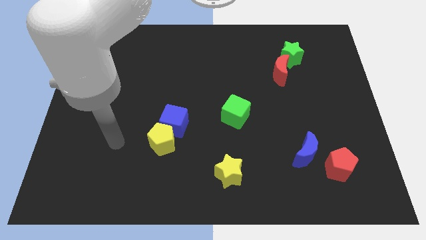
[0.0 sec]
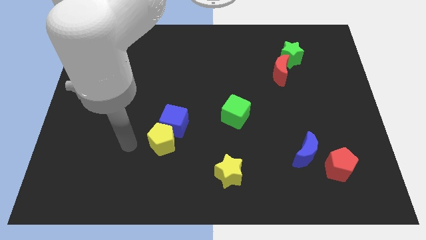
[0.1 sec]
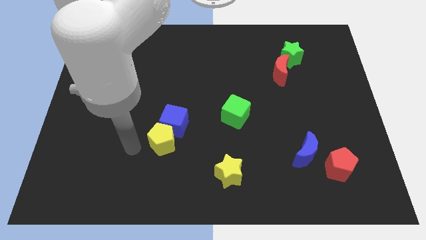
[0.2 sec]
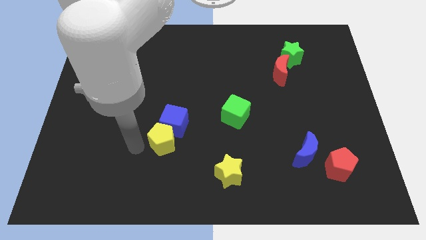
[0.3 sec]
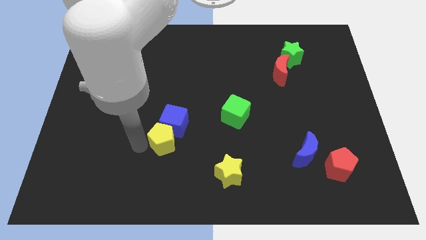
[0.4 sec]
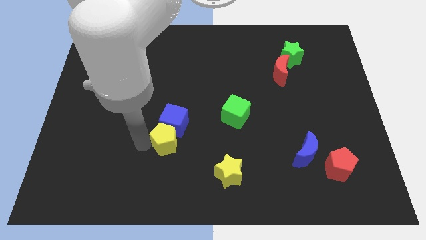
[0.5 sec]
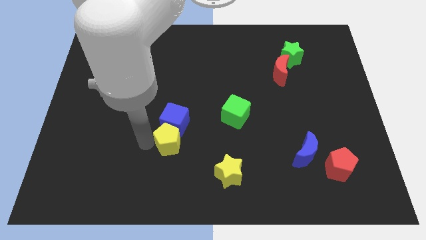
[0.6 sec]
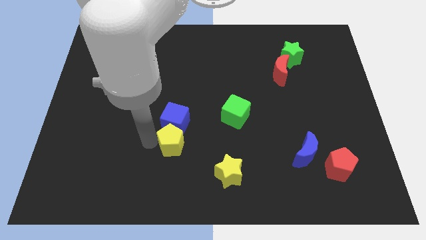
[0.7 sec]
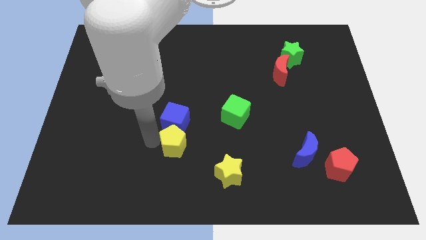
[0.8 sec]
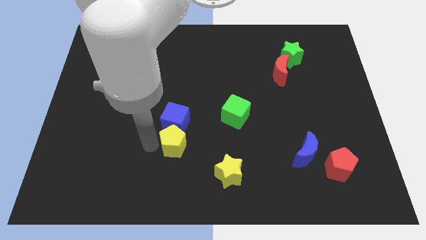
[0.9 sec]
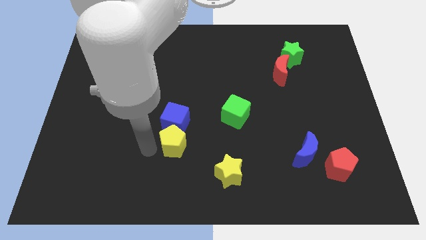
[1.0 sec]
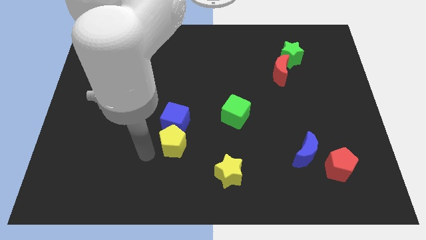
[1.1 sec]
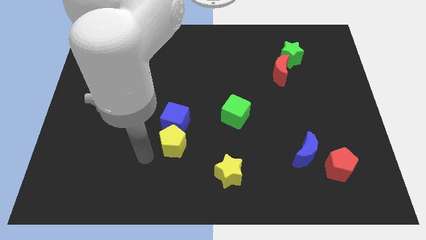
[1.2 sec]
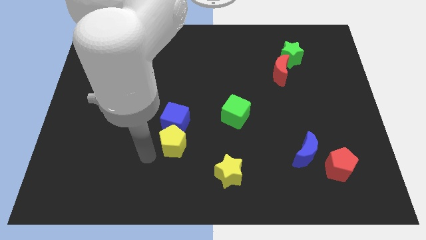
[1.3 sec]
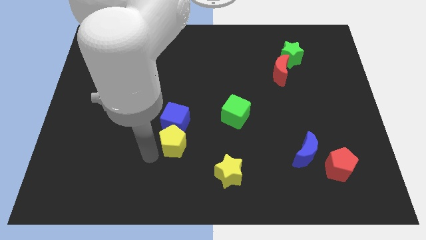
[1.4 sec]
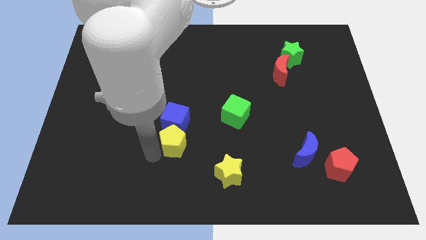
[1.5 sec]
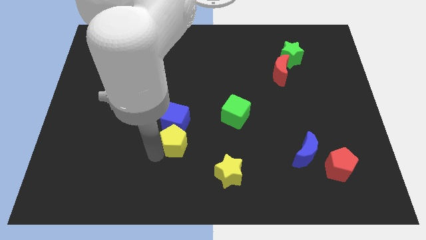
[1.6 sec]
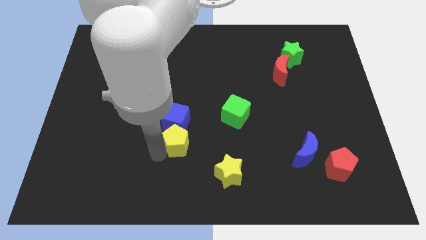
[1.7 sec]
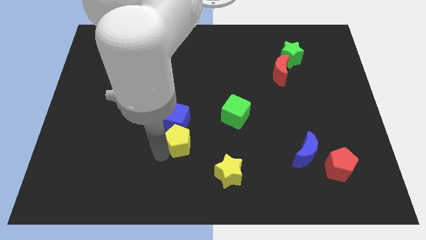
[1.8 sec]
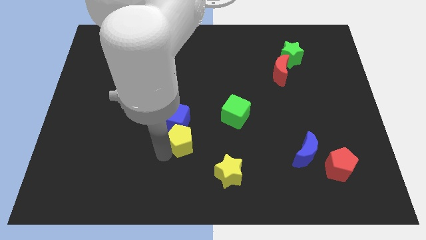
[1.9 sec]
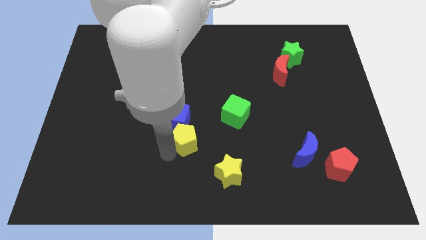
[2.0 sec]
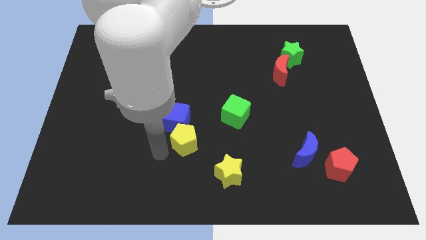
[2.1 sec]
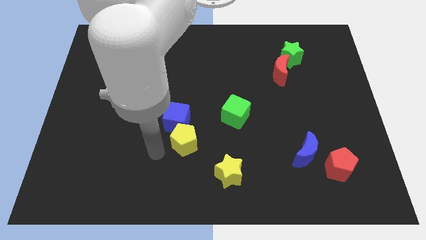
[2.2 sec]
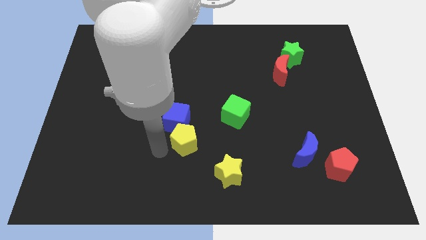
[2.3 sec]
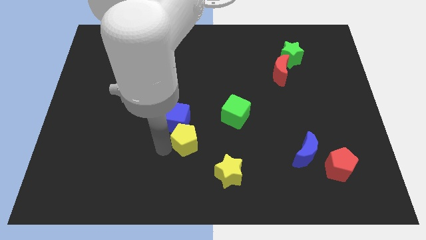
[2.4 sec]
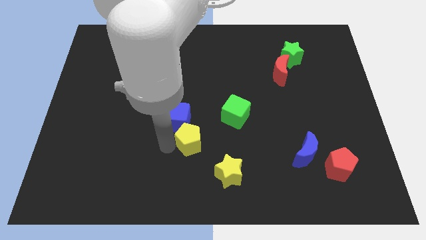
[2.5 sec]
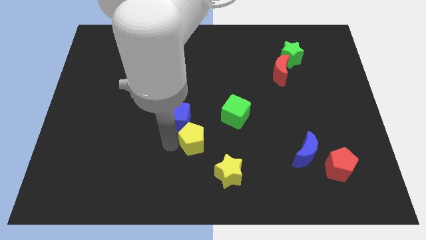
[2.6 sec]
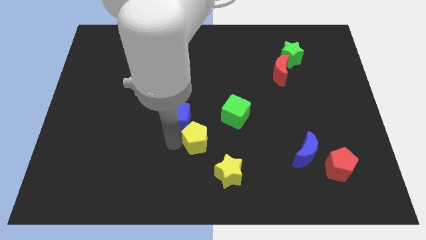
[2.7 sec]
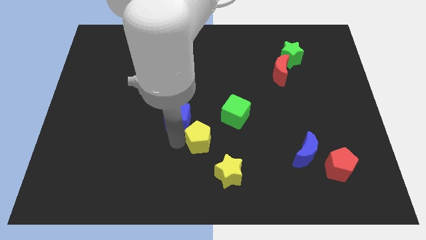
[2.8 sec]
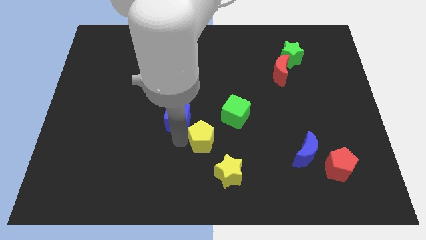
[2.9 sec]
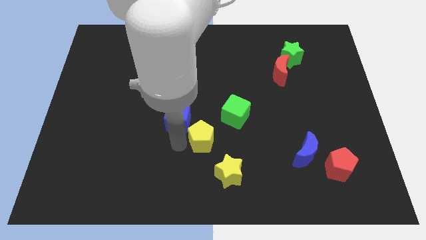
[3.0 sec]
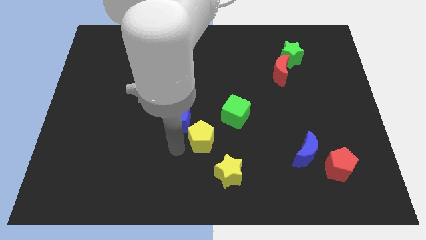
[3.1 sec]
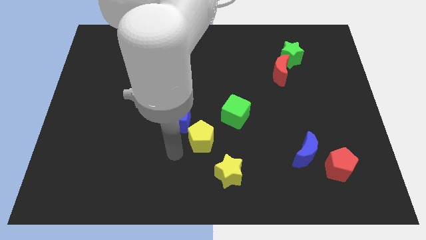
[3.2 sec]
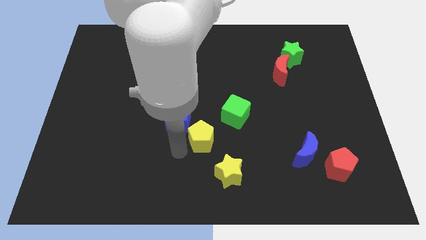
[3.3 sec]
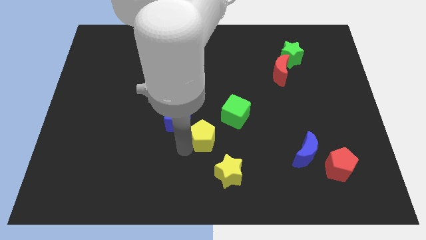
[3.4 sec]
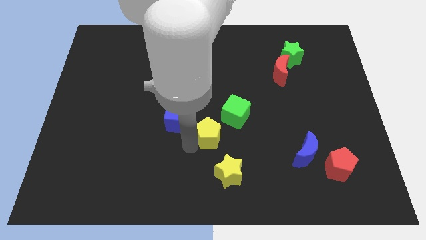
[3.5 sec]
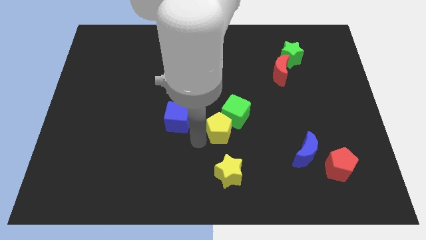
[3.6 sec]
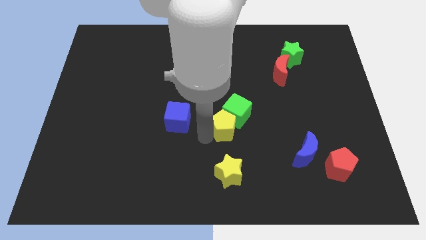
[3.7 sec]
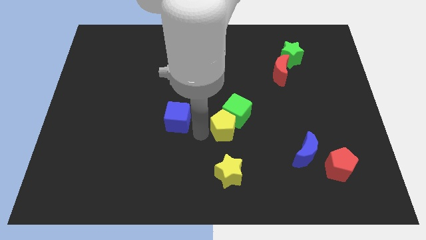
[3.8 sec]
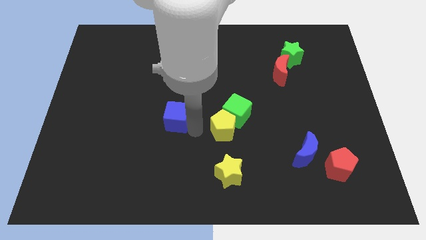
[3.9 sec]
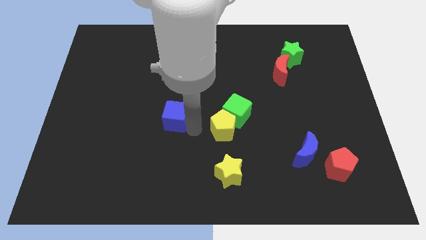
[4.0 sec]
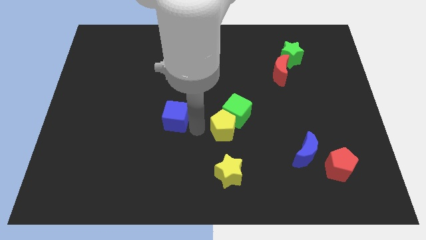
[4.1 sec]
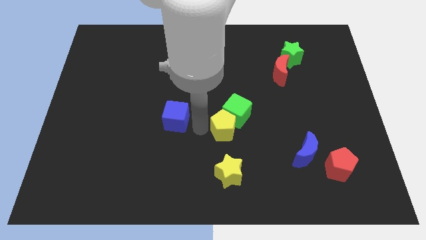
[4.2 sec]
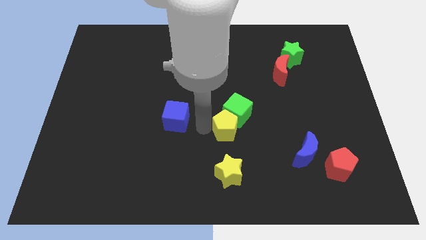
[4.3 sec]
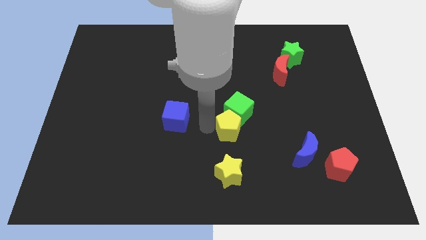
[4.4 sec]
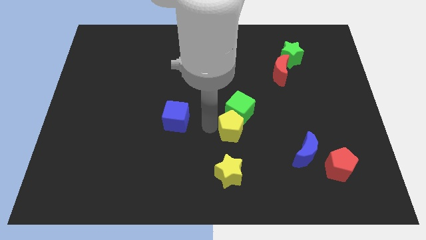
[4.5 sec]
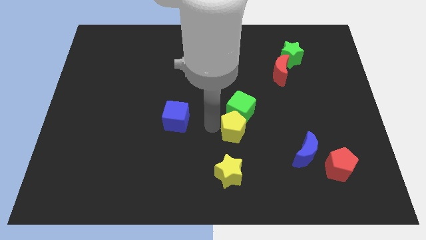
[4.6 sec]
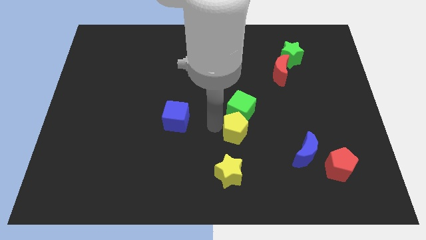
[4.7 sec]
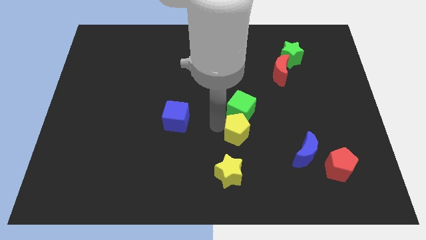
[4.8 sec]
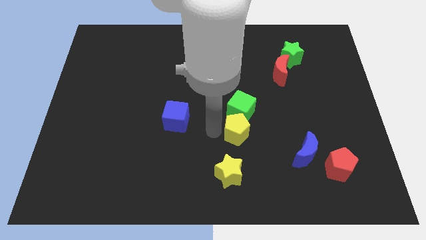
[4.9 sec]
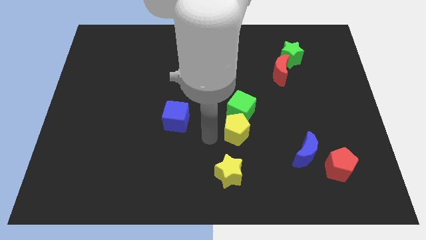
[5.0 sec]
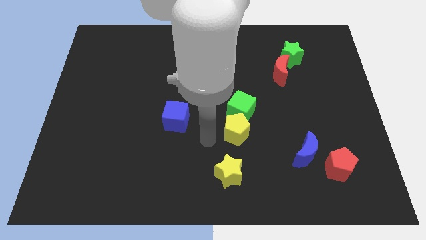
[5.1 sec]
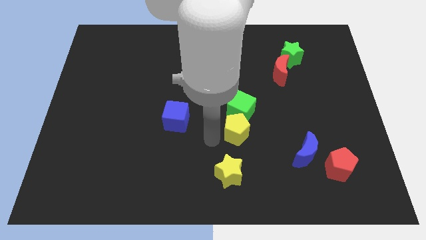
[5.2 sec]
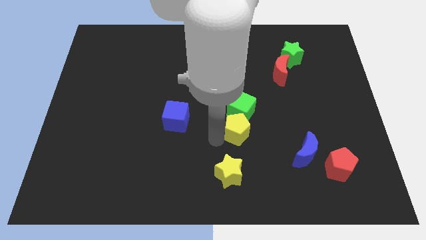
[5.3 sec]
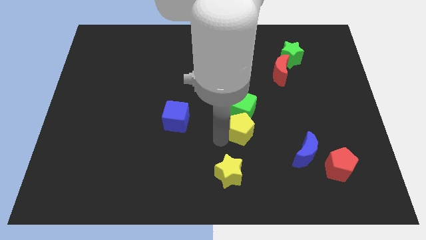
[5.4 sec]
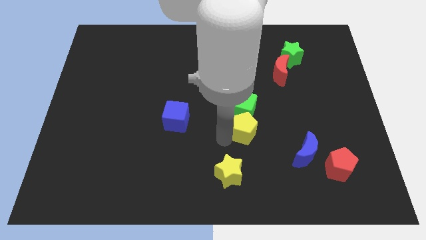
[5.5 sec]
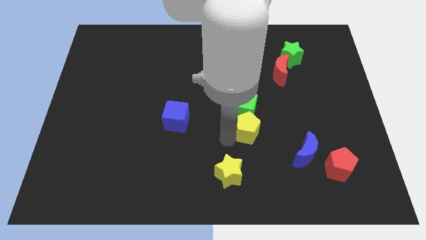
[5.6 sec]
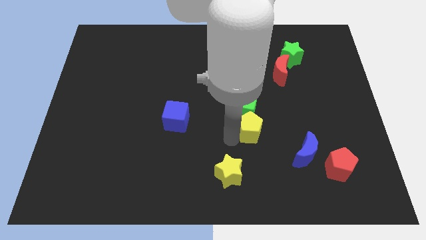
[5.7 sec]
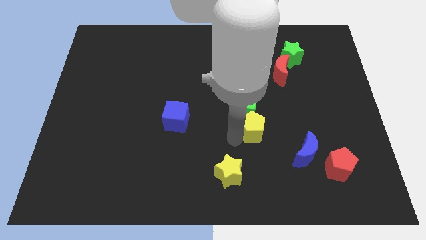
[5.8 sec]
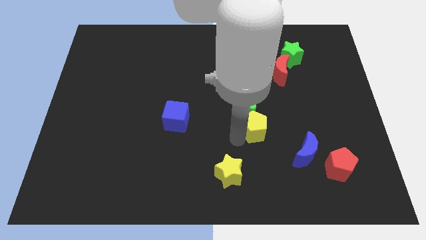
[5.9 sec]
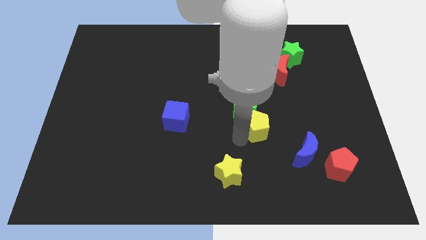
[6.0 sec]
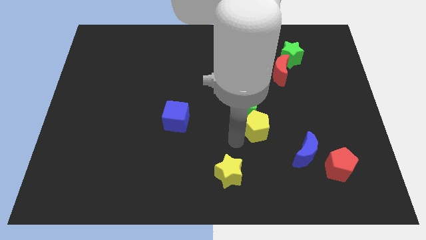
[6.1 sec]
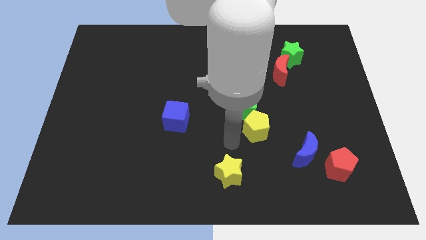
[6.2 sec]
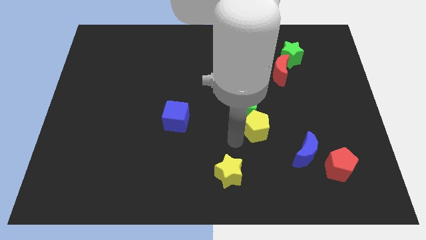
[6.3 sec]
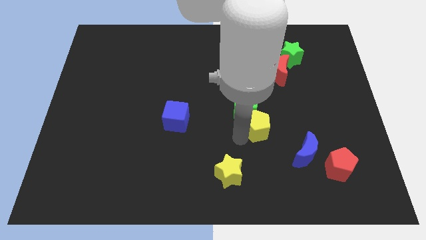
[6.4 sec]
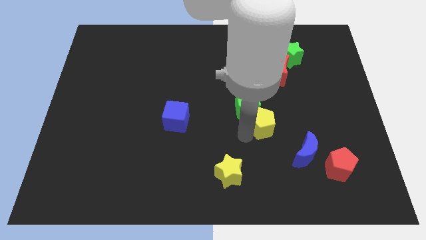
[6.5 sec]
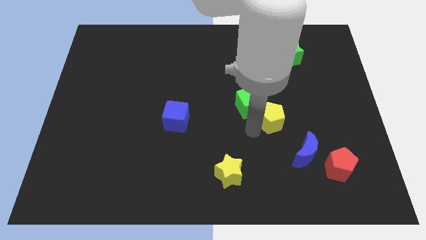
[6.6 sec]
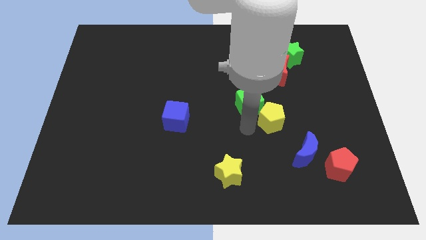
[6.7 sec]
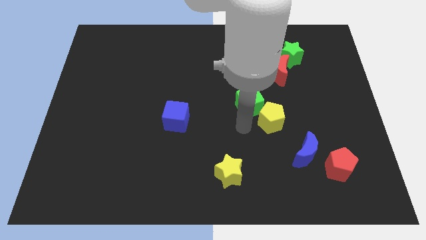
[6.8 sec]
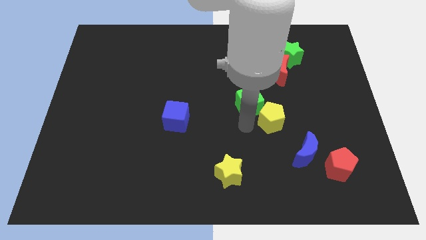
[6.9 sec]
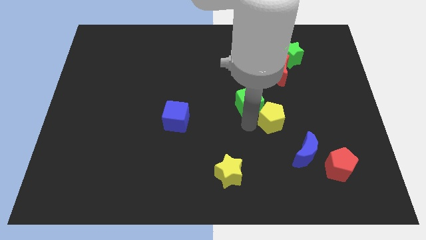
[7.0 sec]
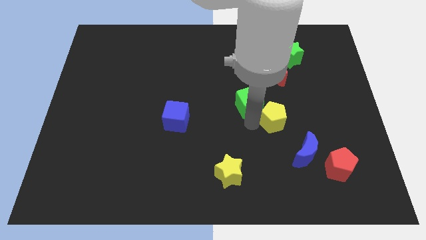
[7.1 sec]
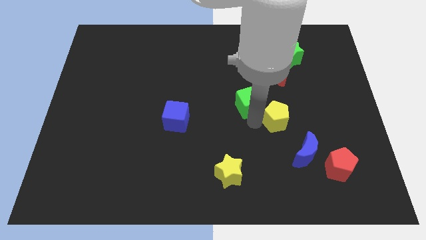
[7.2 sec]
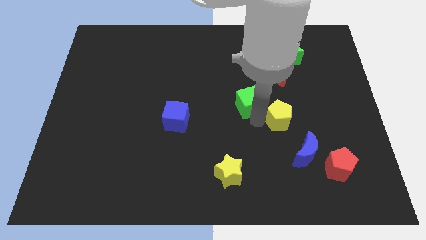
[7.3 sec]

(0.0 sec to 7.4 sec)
slide the yellow pentagon to the top of the blue moon

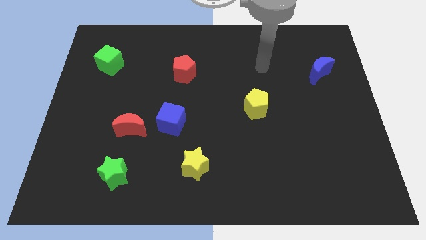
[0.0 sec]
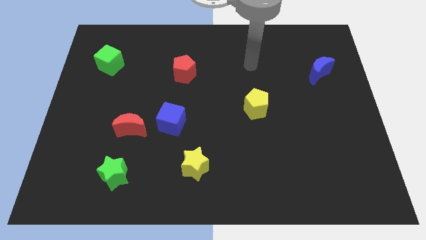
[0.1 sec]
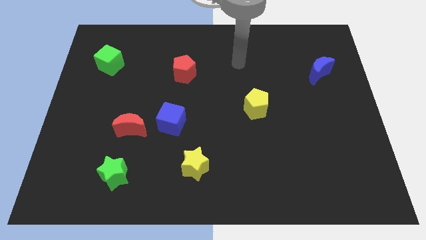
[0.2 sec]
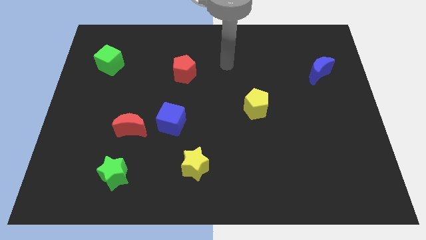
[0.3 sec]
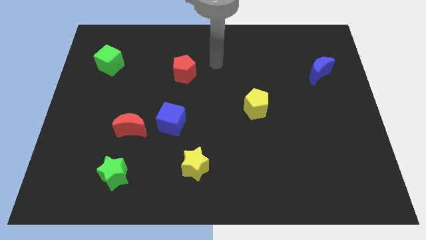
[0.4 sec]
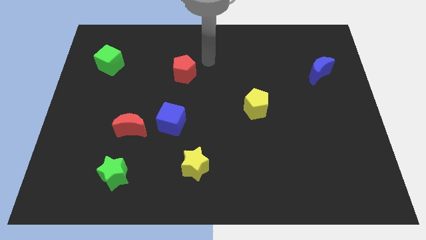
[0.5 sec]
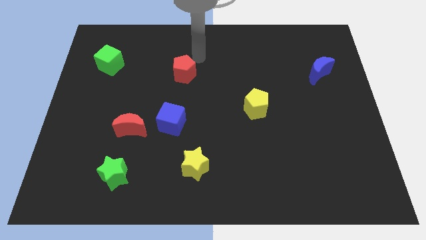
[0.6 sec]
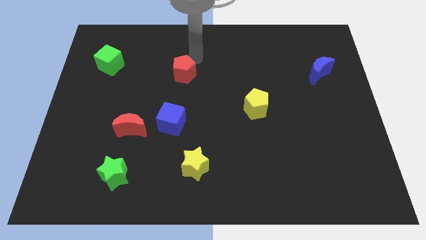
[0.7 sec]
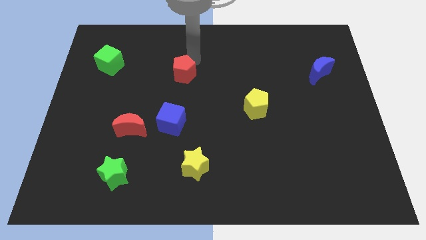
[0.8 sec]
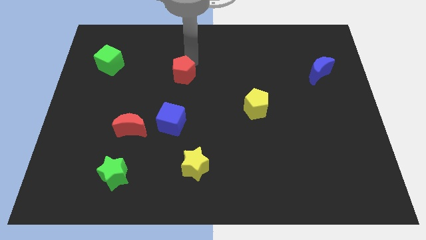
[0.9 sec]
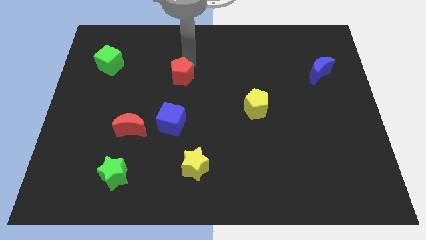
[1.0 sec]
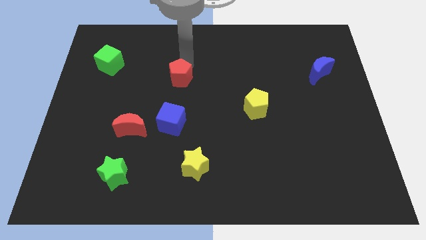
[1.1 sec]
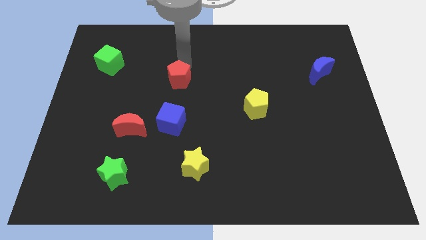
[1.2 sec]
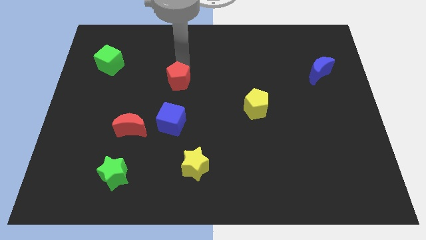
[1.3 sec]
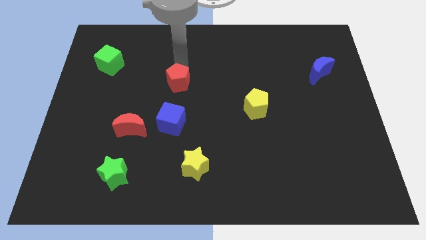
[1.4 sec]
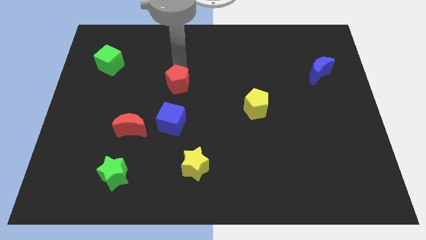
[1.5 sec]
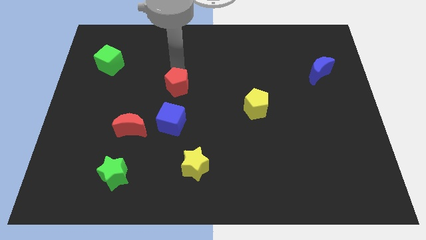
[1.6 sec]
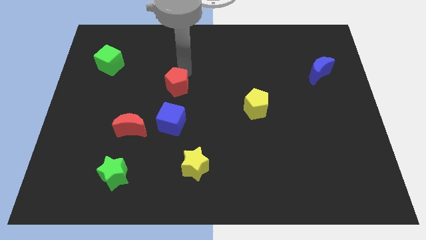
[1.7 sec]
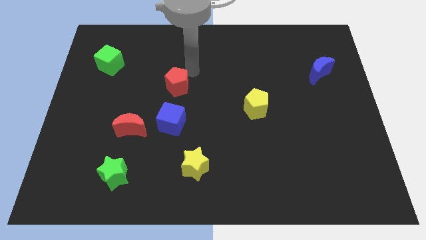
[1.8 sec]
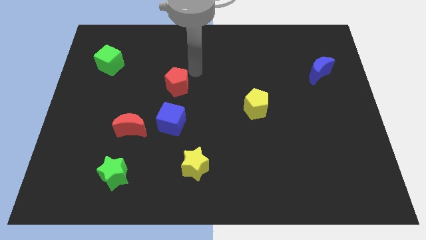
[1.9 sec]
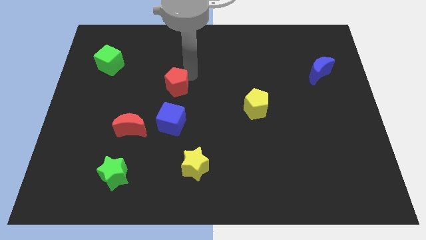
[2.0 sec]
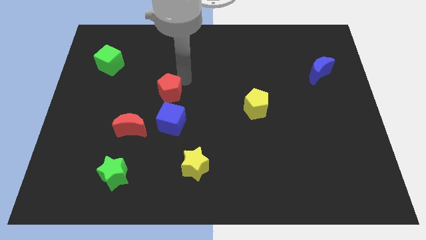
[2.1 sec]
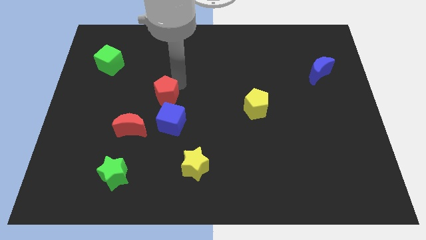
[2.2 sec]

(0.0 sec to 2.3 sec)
move the red pentagon diagonally up and to the left of the blue cube
